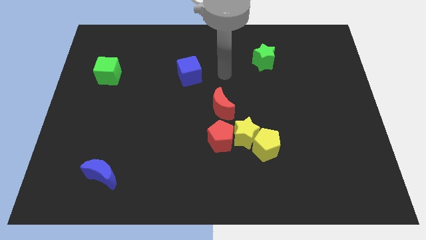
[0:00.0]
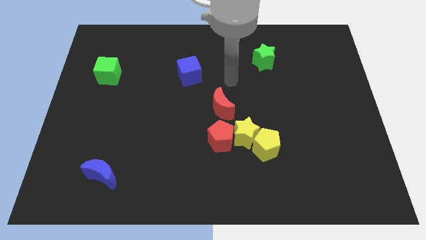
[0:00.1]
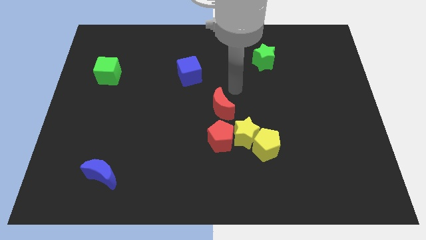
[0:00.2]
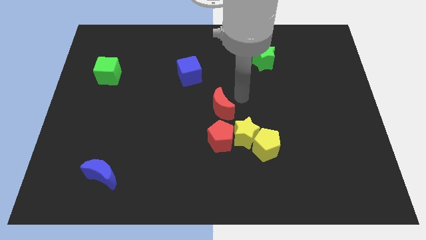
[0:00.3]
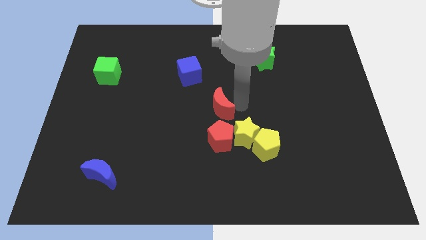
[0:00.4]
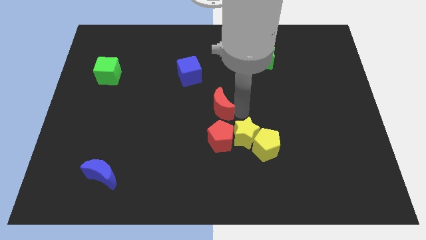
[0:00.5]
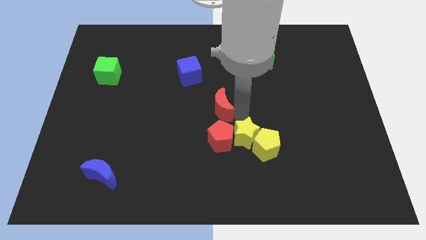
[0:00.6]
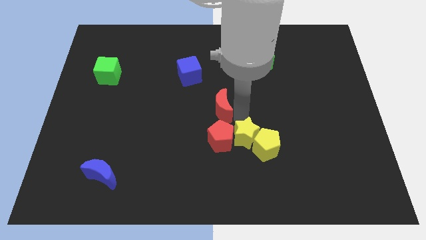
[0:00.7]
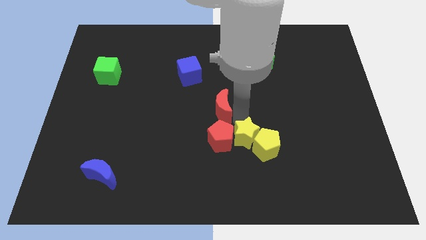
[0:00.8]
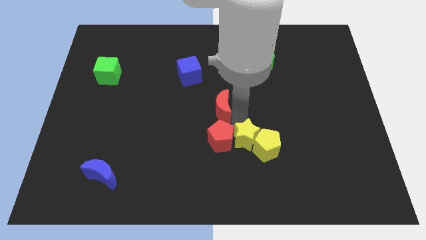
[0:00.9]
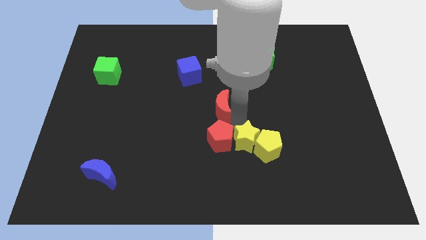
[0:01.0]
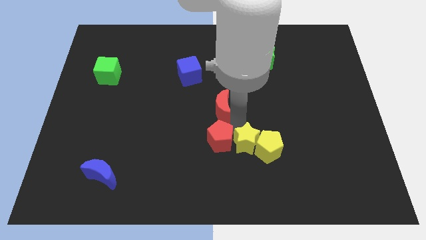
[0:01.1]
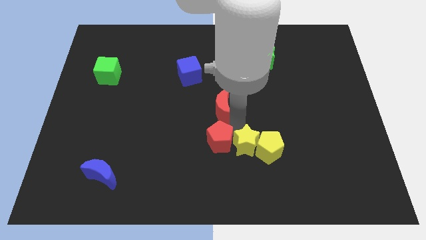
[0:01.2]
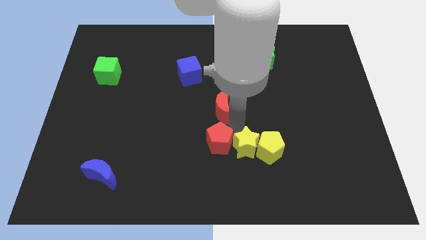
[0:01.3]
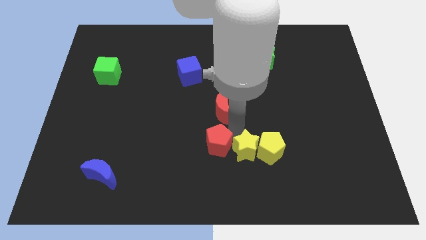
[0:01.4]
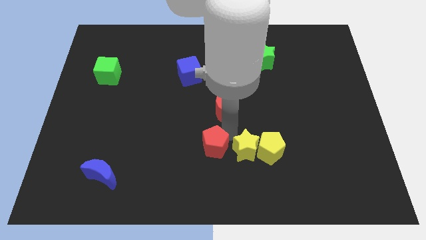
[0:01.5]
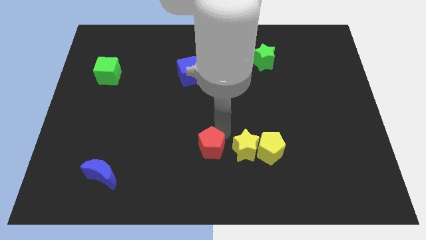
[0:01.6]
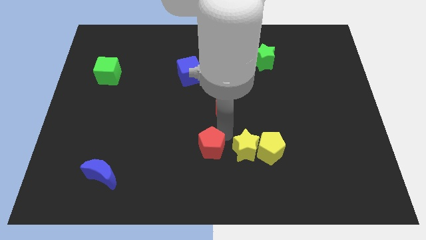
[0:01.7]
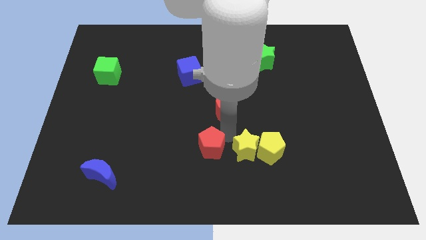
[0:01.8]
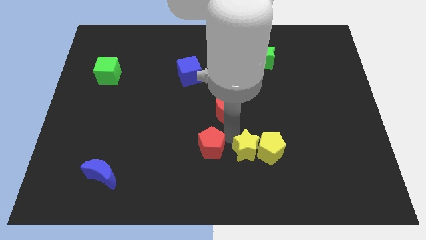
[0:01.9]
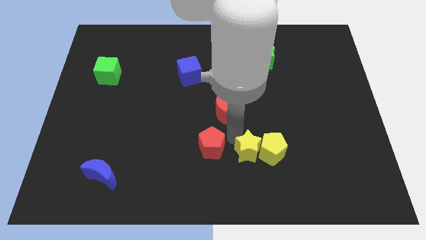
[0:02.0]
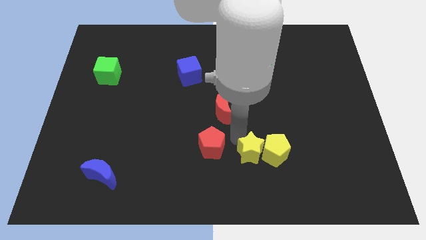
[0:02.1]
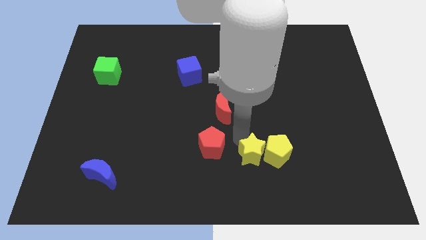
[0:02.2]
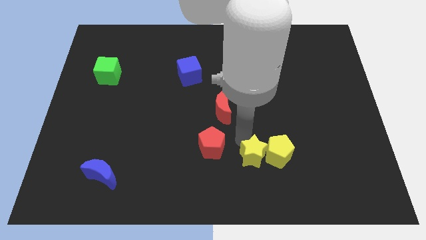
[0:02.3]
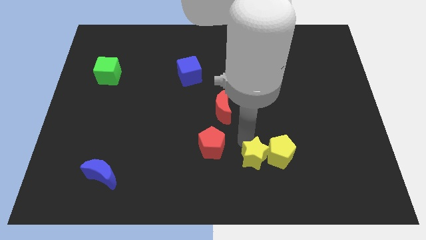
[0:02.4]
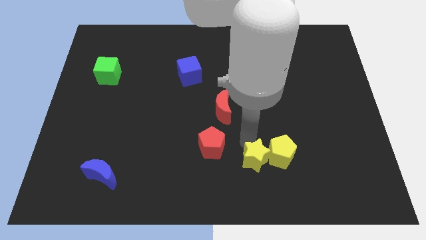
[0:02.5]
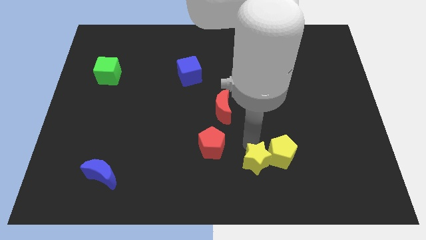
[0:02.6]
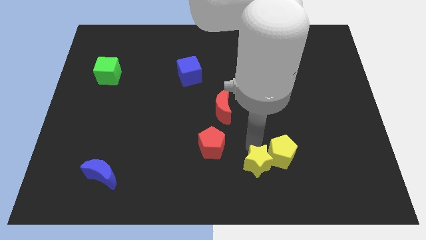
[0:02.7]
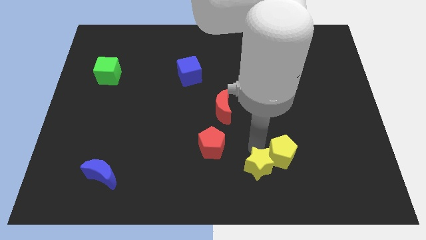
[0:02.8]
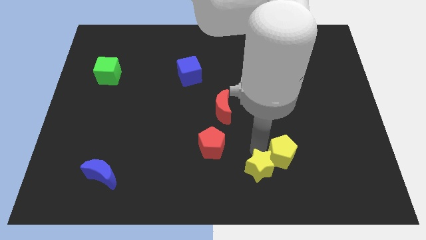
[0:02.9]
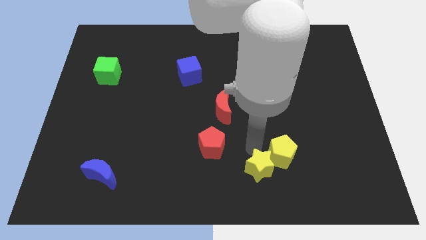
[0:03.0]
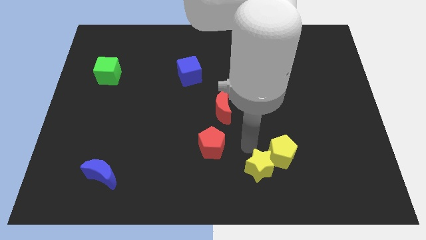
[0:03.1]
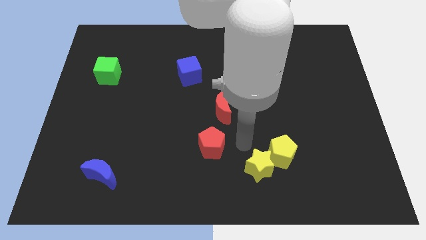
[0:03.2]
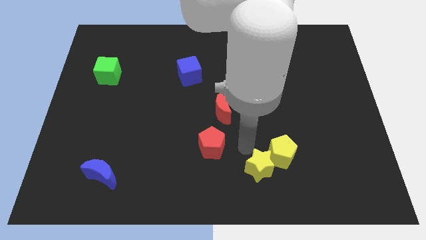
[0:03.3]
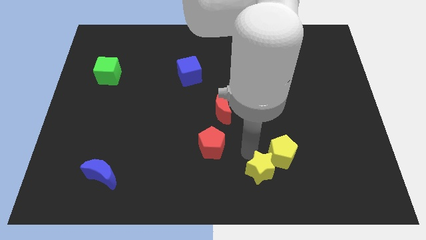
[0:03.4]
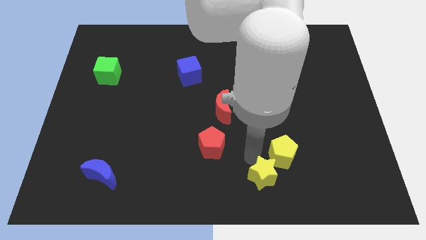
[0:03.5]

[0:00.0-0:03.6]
separate the yellow star from the clump

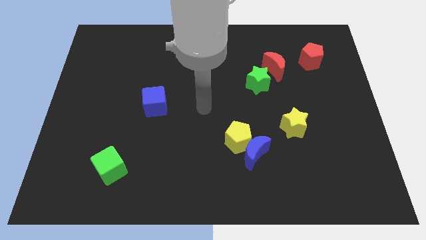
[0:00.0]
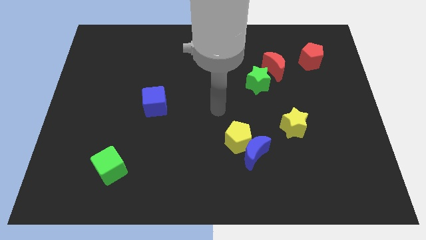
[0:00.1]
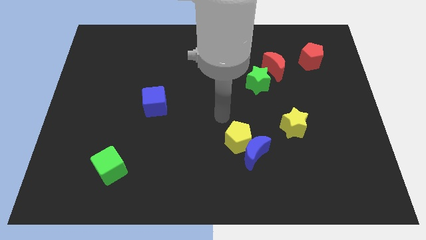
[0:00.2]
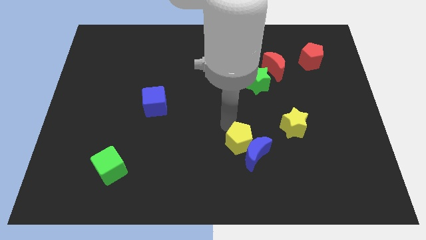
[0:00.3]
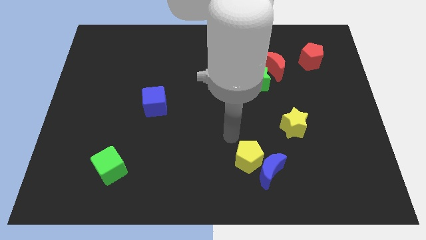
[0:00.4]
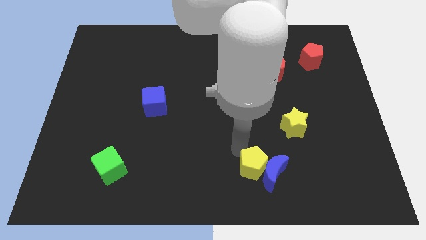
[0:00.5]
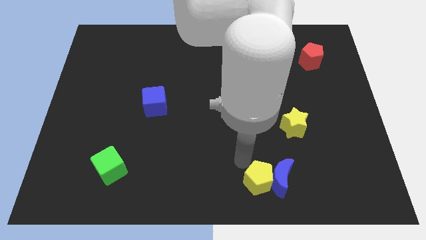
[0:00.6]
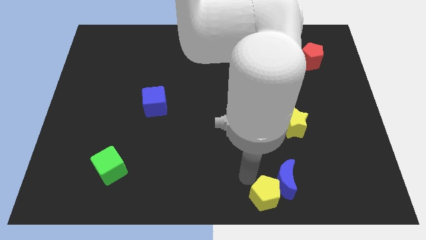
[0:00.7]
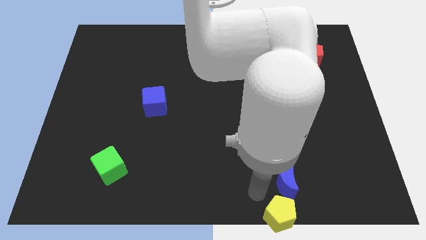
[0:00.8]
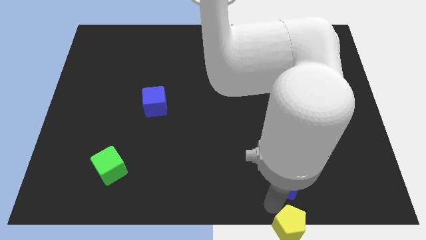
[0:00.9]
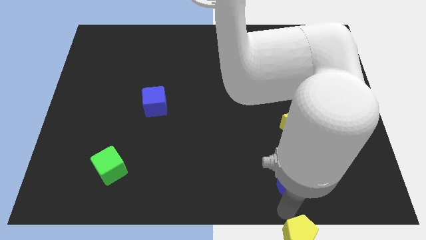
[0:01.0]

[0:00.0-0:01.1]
pull the blue moon apart from the yellow pentagon

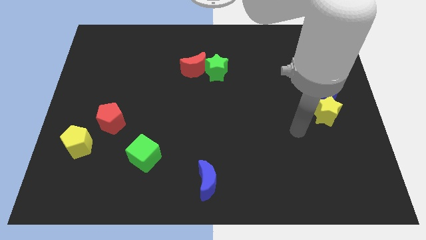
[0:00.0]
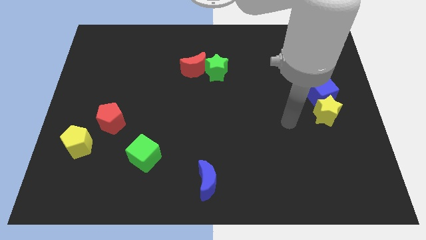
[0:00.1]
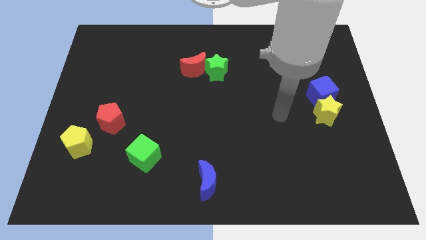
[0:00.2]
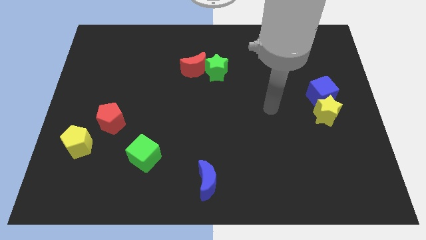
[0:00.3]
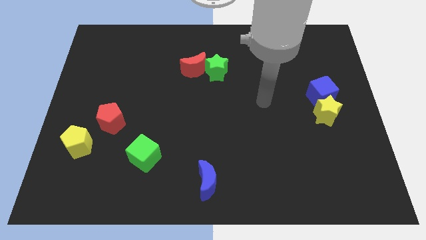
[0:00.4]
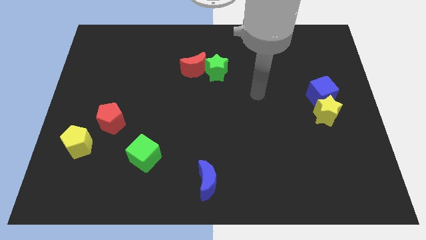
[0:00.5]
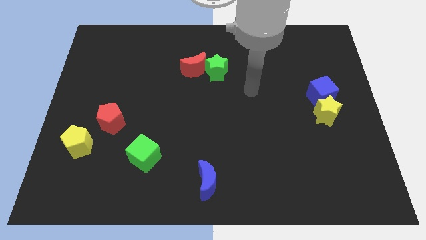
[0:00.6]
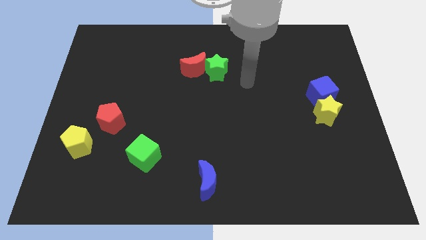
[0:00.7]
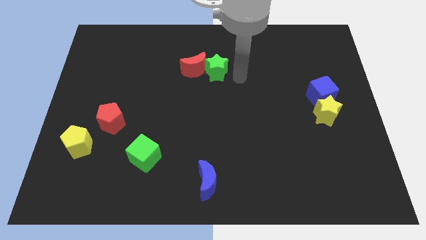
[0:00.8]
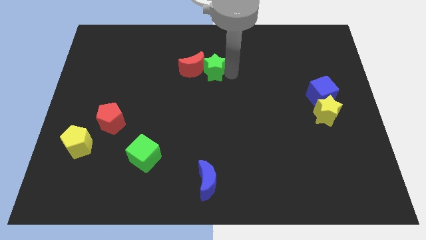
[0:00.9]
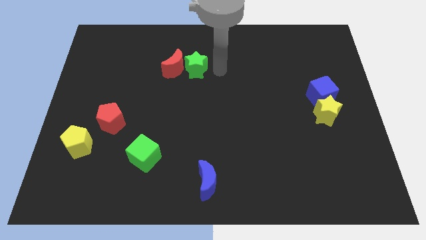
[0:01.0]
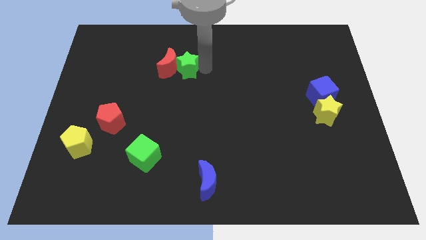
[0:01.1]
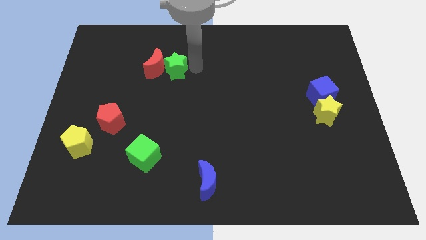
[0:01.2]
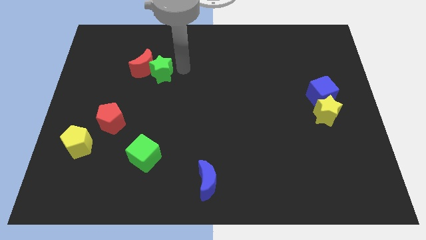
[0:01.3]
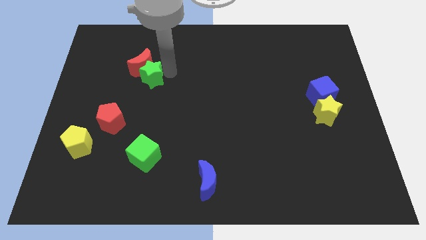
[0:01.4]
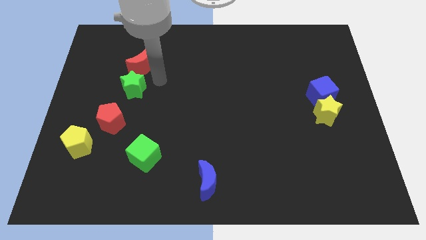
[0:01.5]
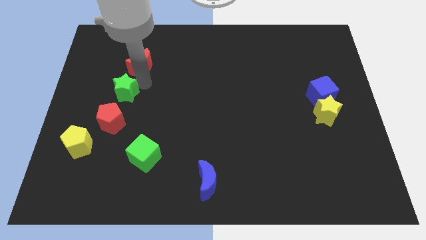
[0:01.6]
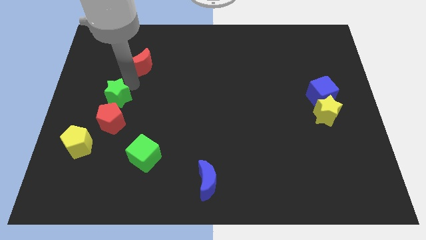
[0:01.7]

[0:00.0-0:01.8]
move the red moon away from the green star

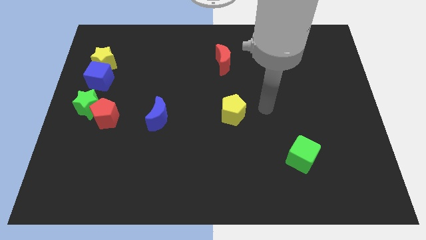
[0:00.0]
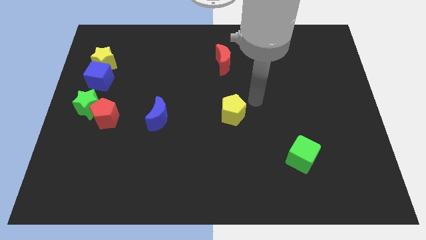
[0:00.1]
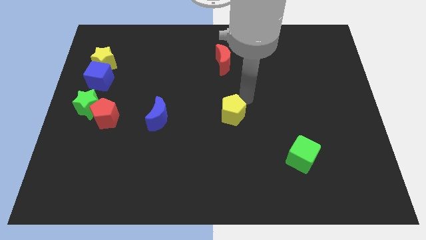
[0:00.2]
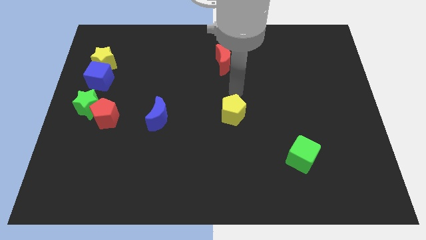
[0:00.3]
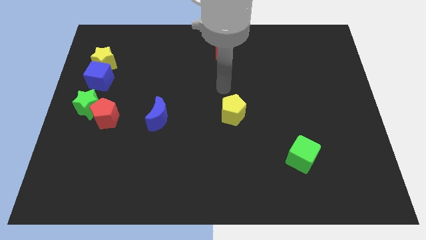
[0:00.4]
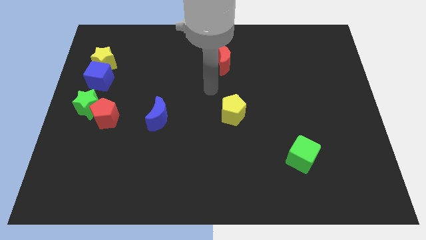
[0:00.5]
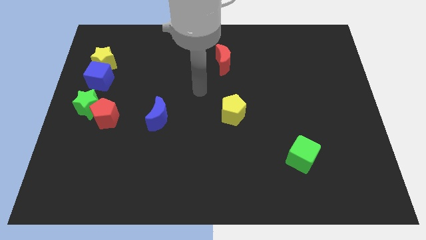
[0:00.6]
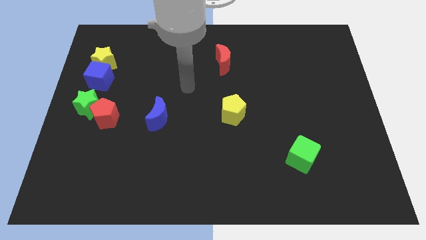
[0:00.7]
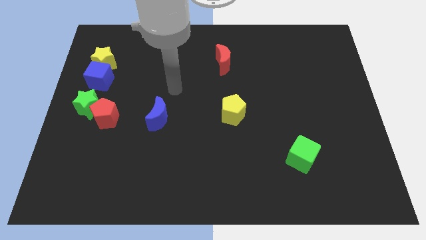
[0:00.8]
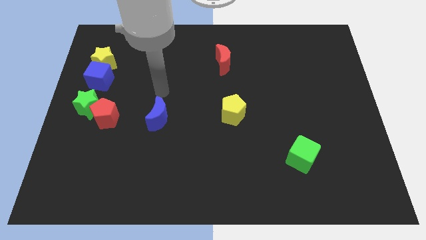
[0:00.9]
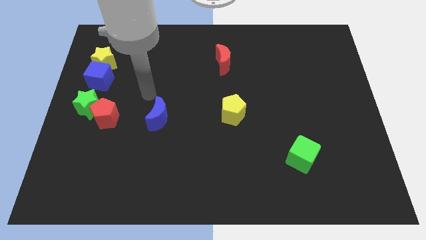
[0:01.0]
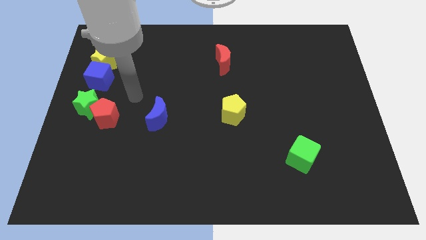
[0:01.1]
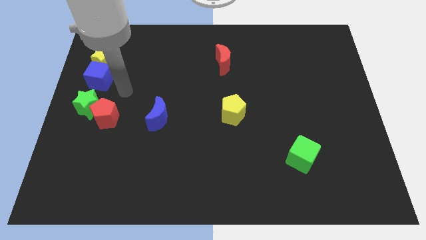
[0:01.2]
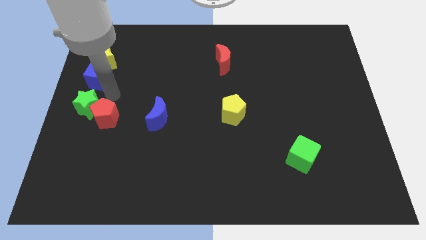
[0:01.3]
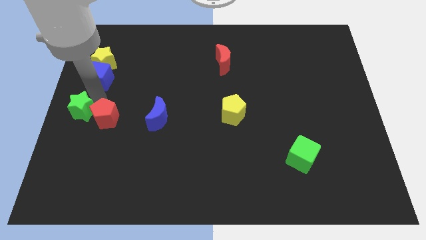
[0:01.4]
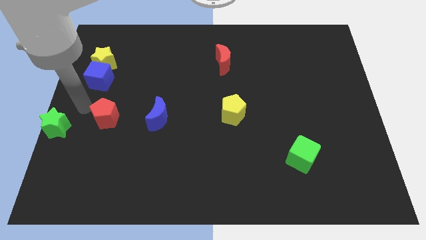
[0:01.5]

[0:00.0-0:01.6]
pull the red pentagon apart from the green star

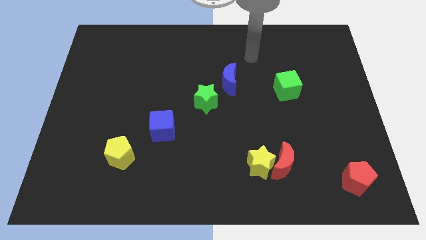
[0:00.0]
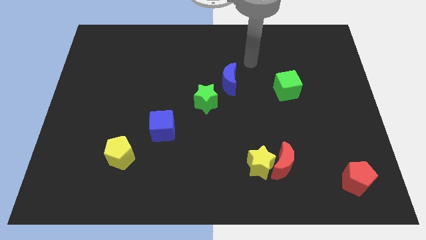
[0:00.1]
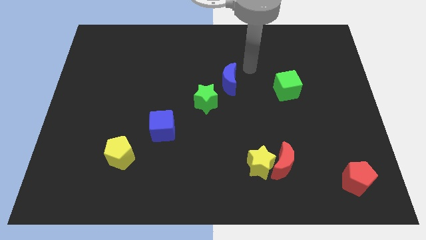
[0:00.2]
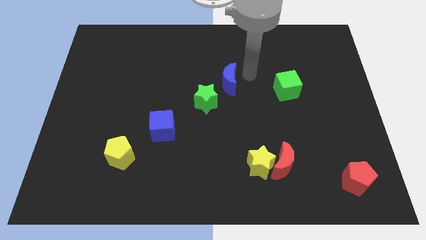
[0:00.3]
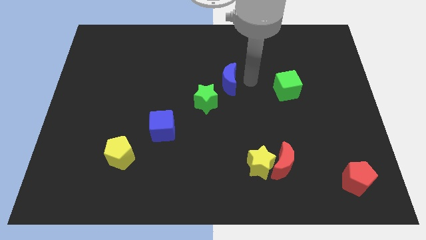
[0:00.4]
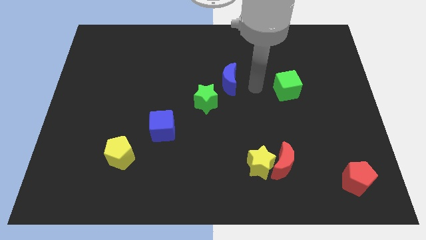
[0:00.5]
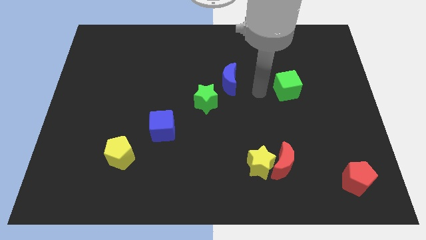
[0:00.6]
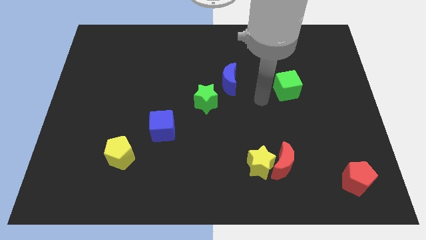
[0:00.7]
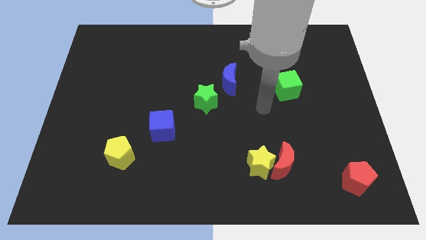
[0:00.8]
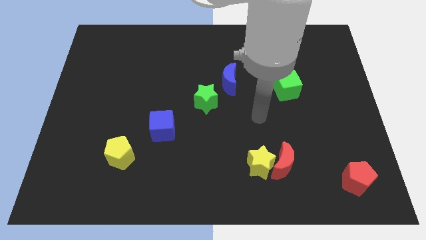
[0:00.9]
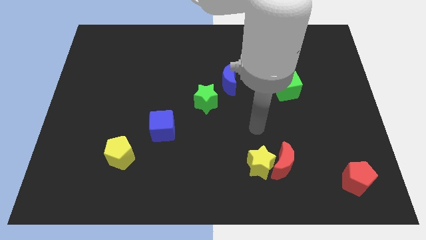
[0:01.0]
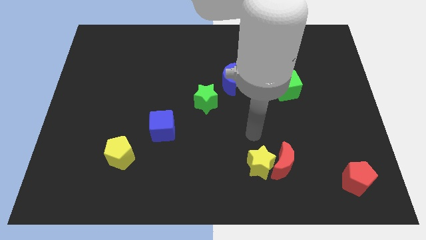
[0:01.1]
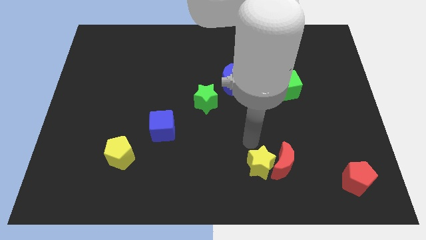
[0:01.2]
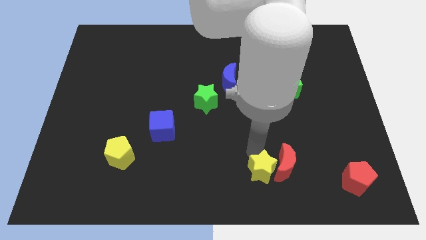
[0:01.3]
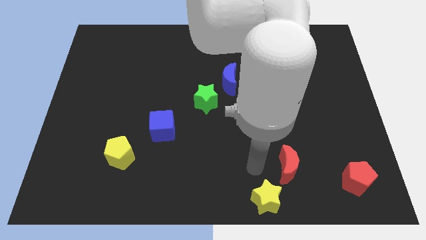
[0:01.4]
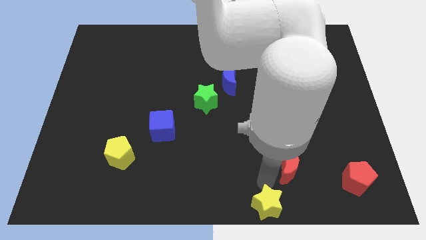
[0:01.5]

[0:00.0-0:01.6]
separate the red moon from the yellow star
